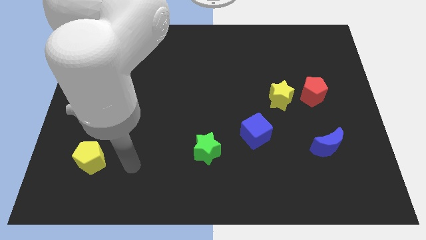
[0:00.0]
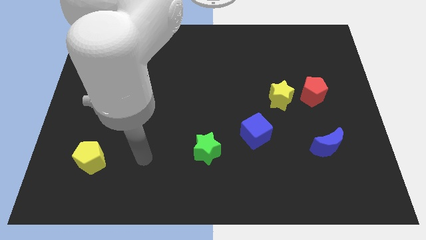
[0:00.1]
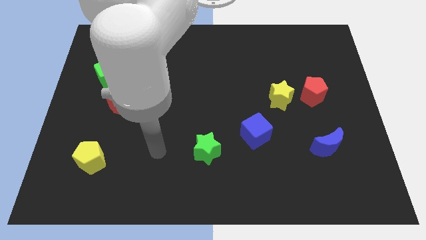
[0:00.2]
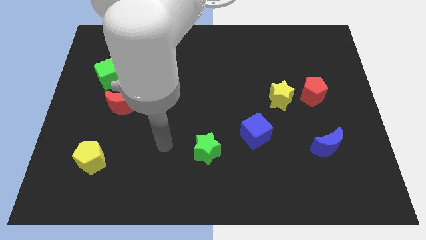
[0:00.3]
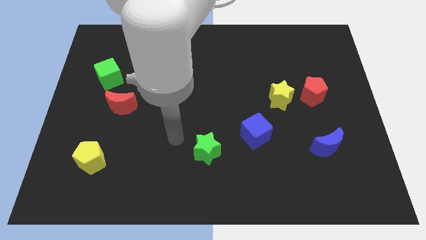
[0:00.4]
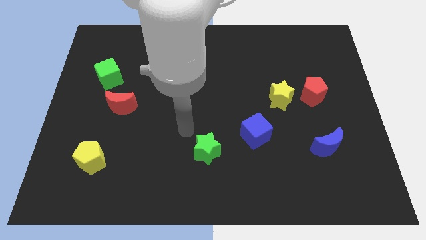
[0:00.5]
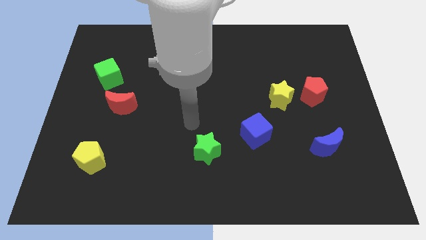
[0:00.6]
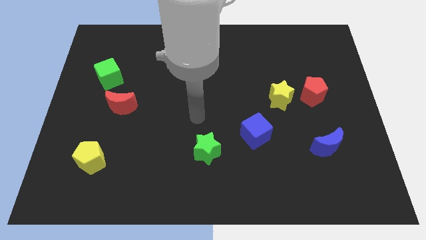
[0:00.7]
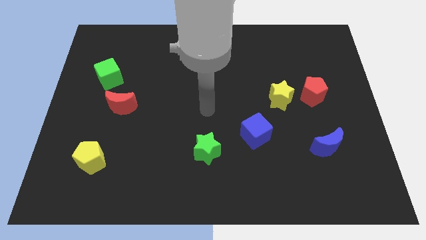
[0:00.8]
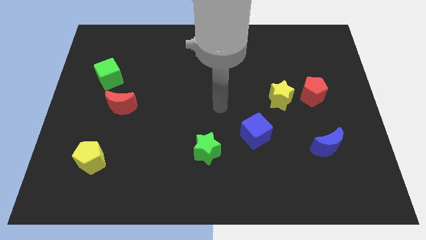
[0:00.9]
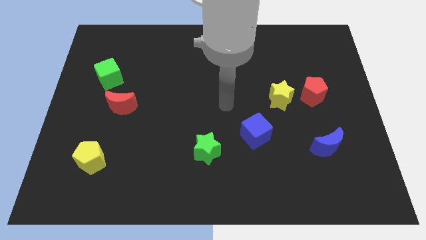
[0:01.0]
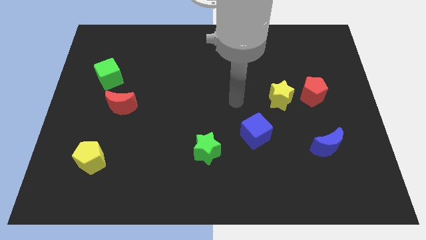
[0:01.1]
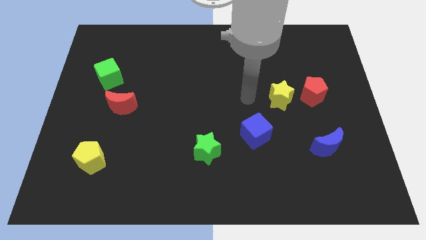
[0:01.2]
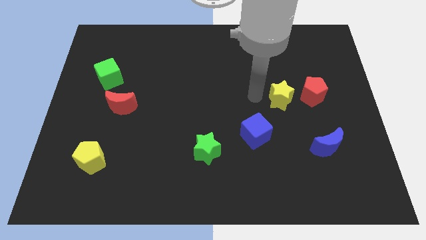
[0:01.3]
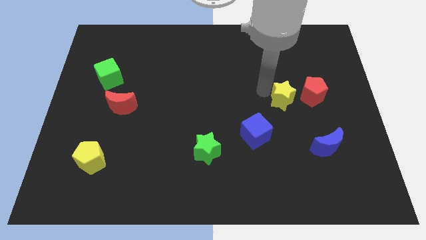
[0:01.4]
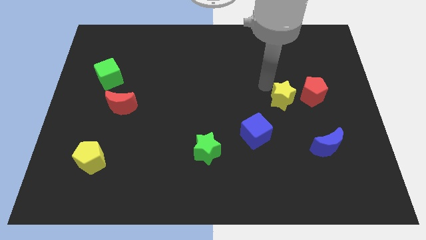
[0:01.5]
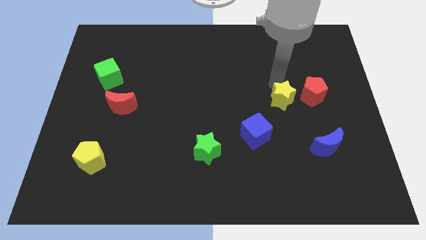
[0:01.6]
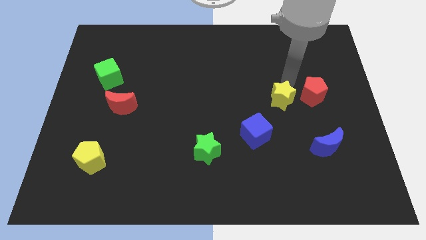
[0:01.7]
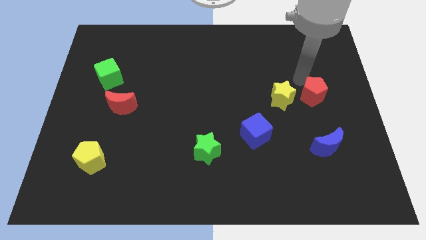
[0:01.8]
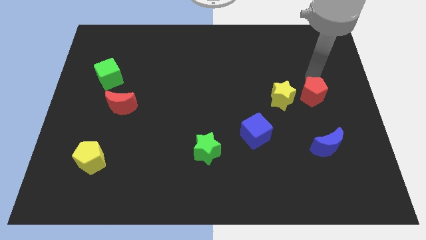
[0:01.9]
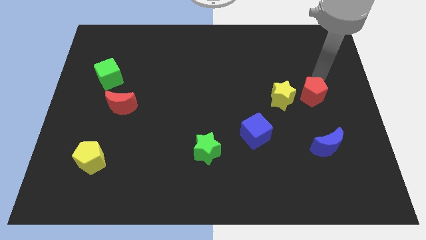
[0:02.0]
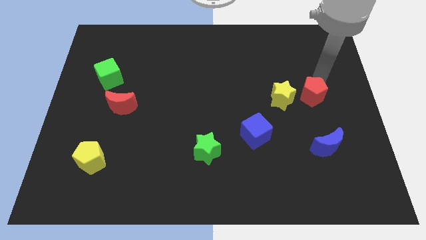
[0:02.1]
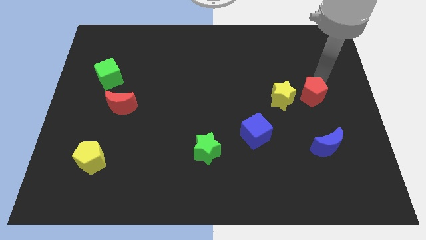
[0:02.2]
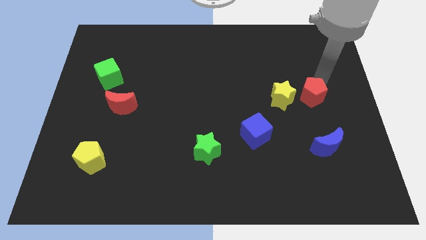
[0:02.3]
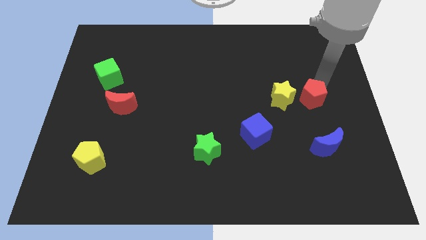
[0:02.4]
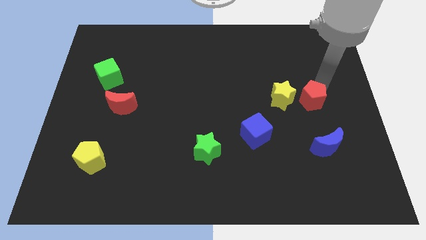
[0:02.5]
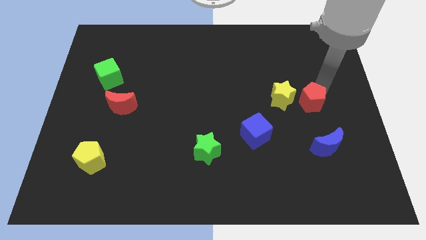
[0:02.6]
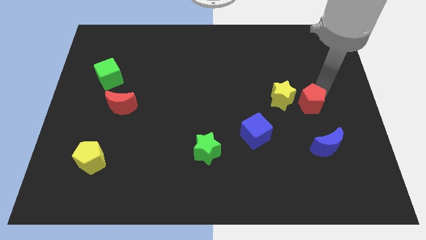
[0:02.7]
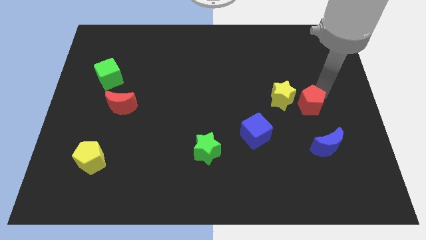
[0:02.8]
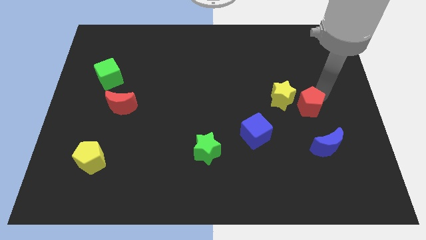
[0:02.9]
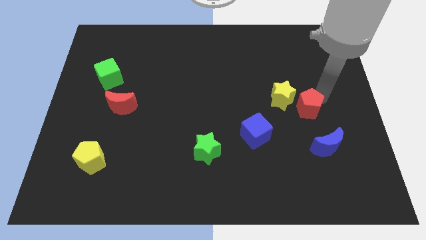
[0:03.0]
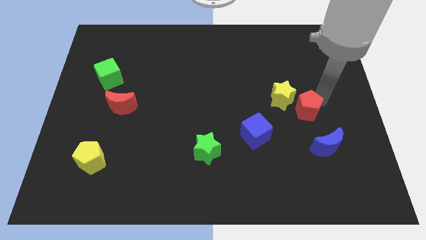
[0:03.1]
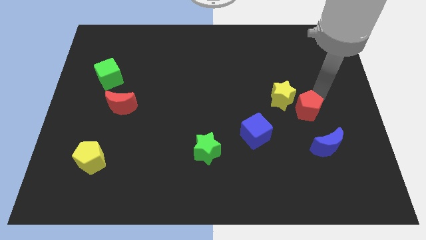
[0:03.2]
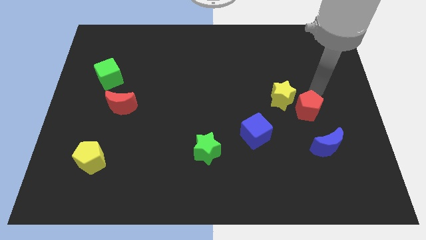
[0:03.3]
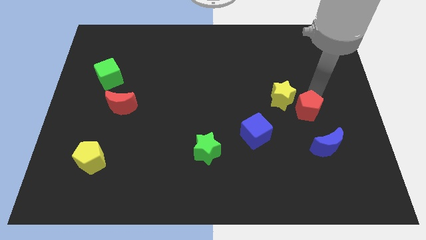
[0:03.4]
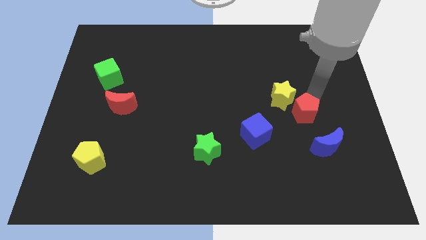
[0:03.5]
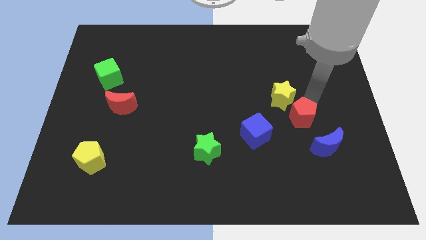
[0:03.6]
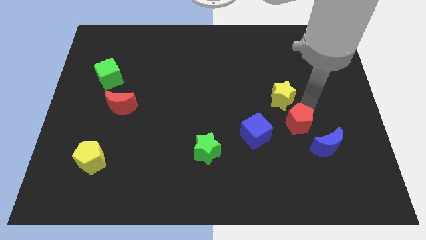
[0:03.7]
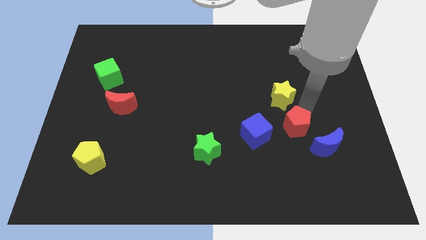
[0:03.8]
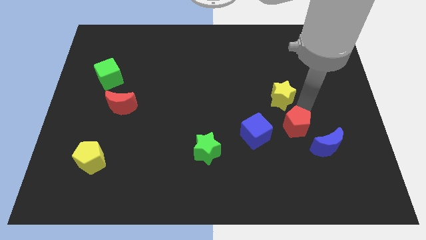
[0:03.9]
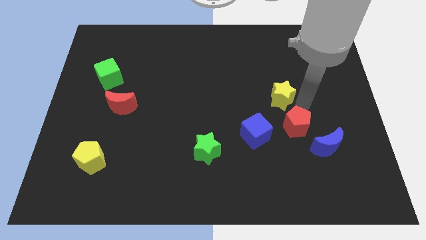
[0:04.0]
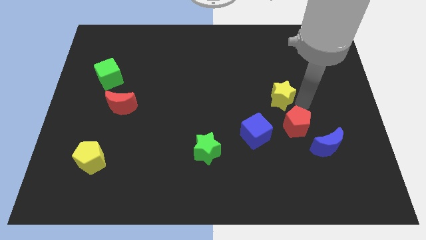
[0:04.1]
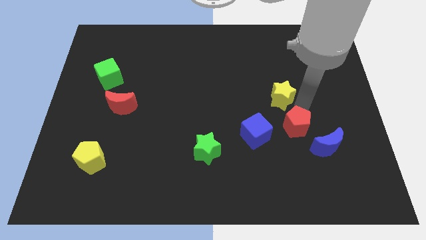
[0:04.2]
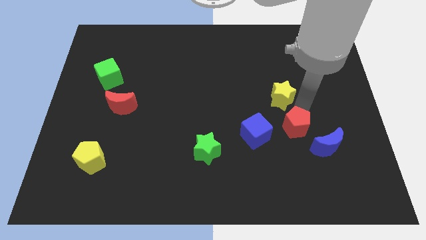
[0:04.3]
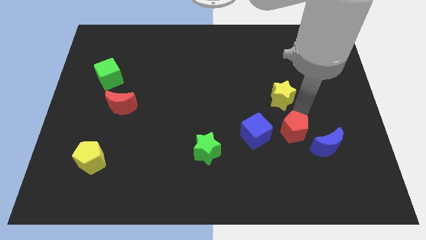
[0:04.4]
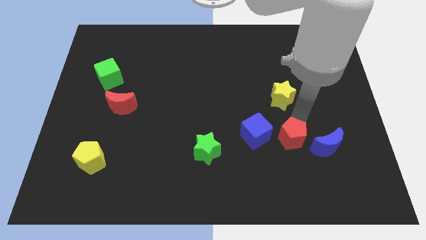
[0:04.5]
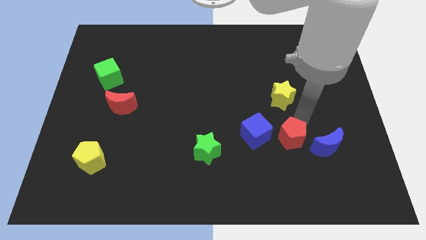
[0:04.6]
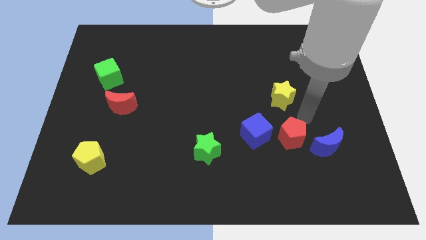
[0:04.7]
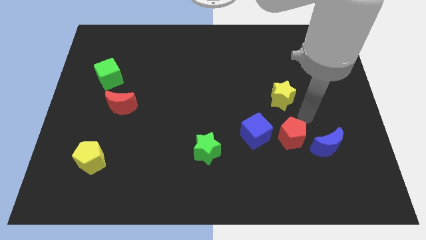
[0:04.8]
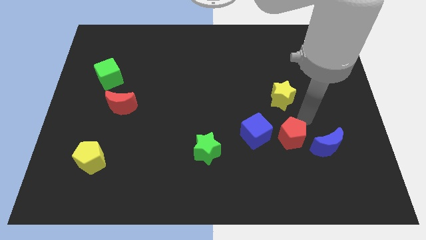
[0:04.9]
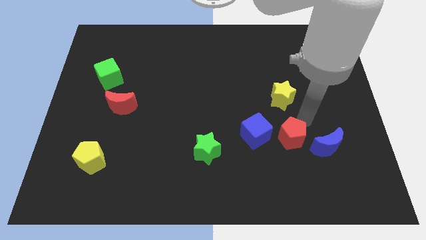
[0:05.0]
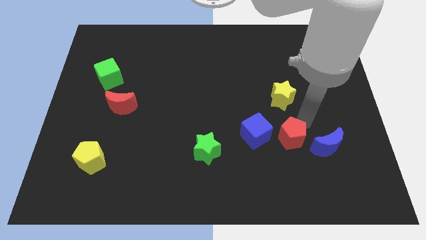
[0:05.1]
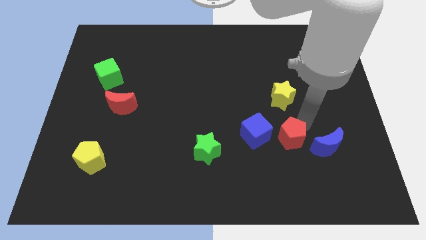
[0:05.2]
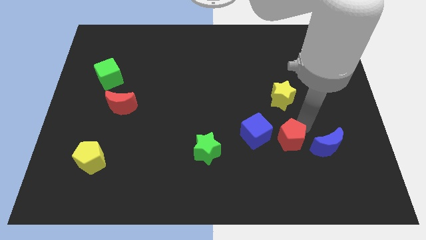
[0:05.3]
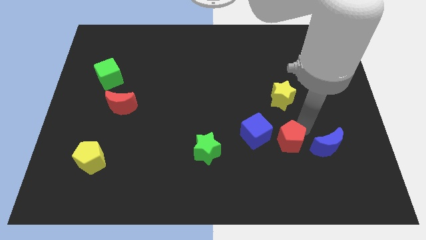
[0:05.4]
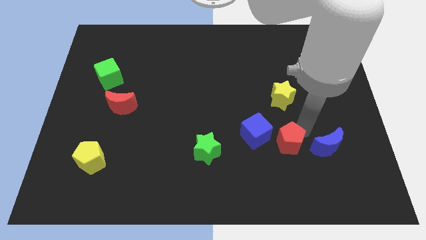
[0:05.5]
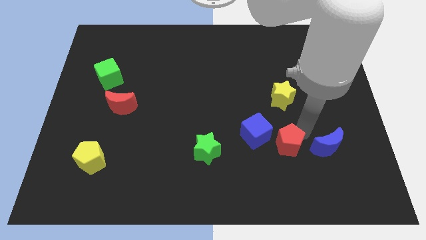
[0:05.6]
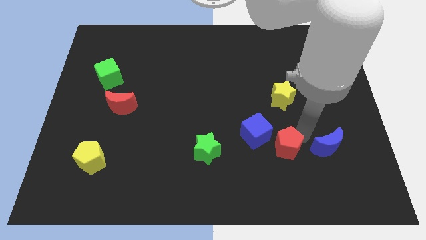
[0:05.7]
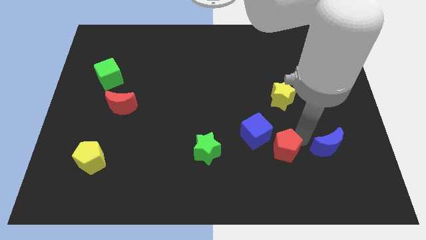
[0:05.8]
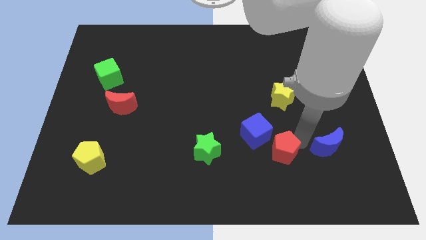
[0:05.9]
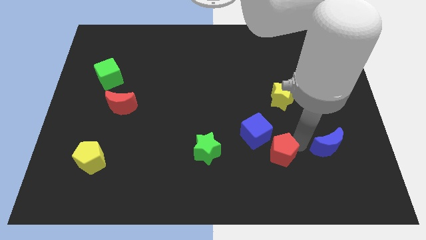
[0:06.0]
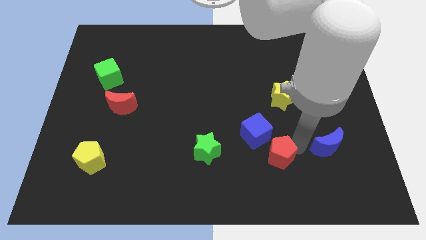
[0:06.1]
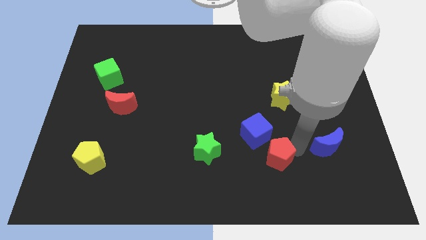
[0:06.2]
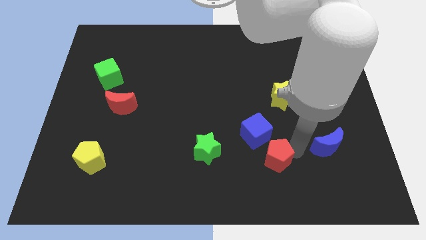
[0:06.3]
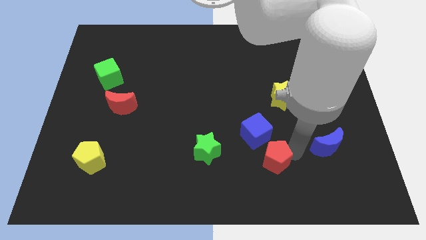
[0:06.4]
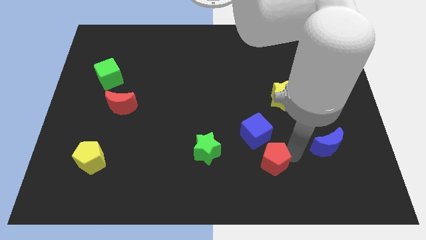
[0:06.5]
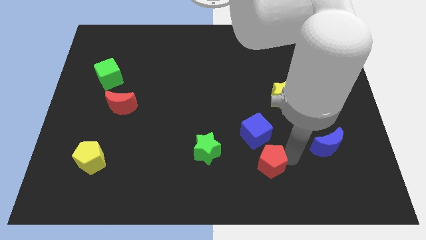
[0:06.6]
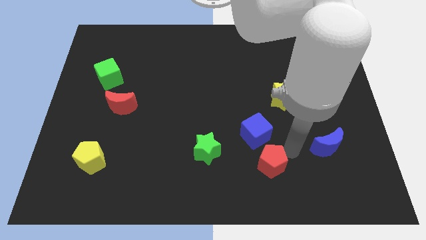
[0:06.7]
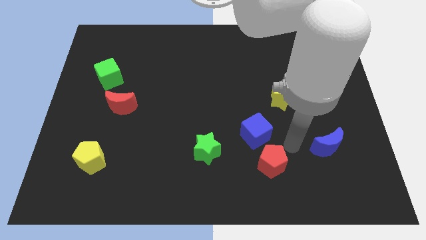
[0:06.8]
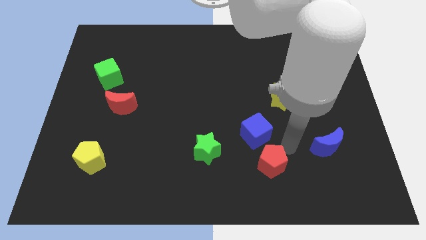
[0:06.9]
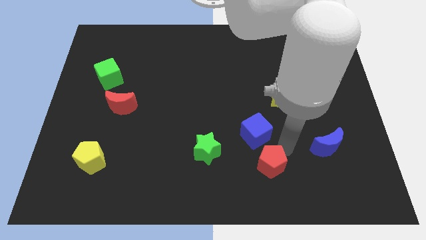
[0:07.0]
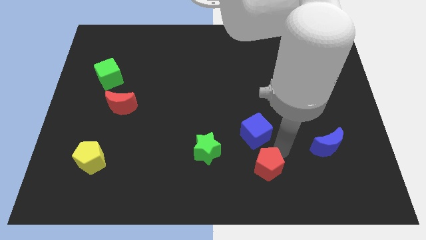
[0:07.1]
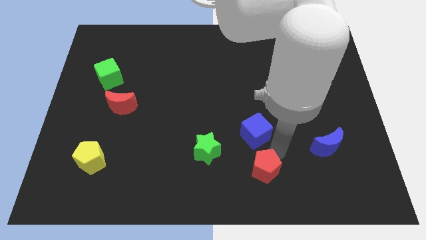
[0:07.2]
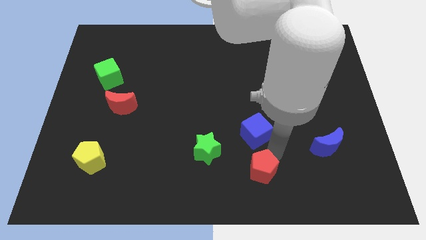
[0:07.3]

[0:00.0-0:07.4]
slide the red pentagon to the bottom side
